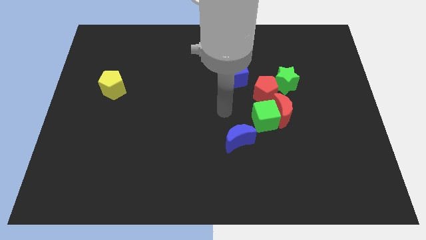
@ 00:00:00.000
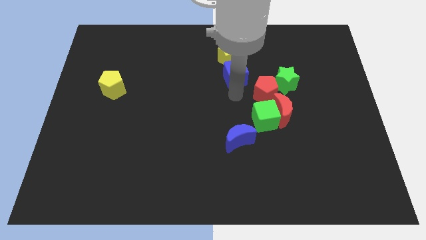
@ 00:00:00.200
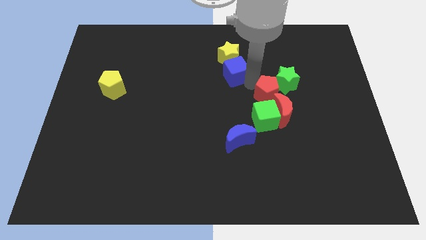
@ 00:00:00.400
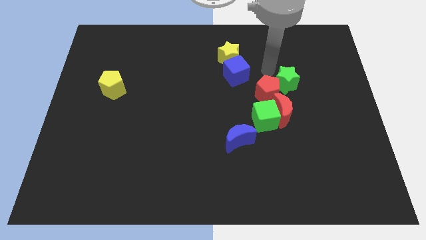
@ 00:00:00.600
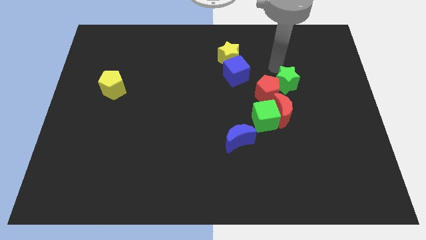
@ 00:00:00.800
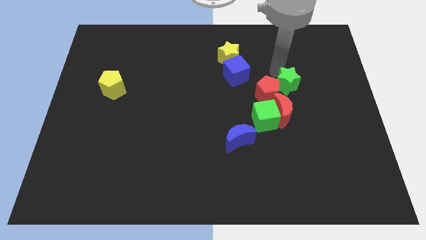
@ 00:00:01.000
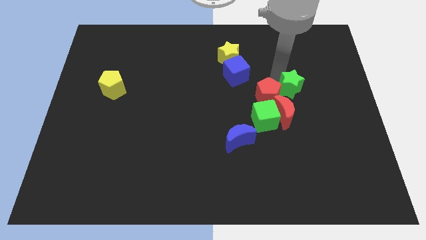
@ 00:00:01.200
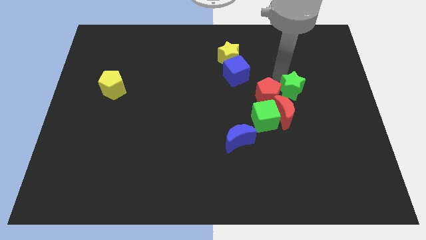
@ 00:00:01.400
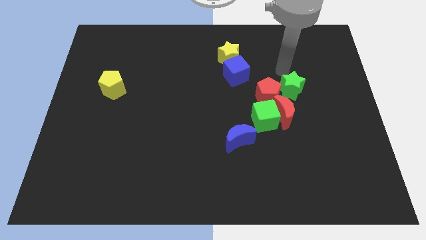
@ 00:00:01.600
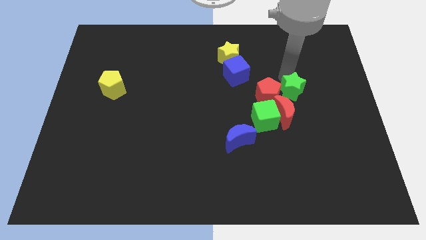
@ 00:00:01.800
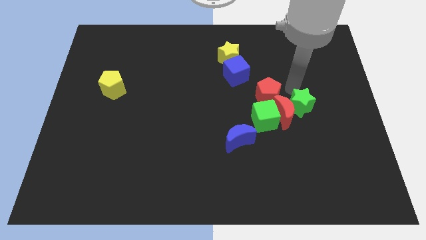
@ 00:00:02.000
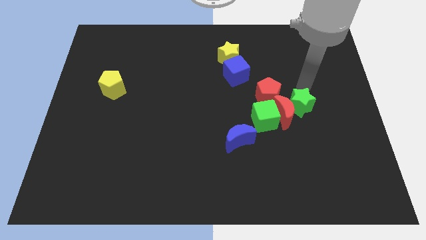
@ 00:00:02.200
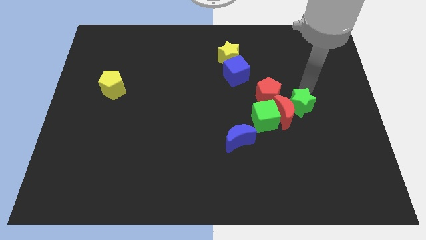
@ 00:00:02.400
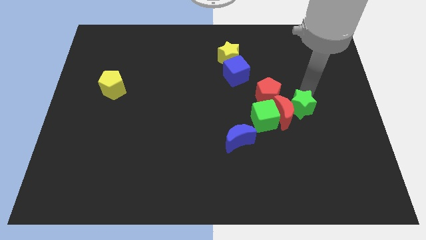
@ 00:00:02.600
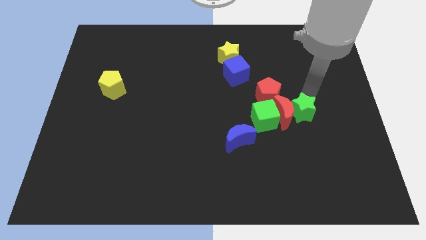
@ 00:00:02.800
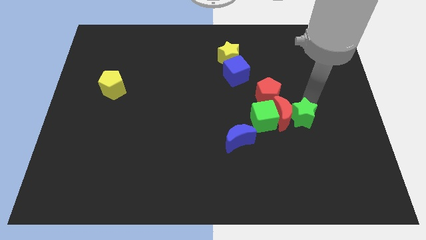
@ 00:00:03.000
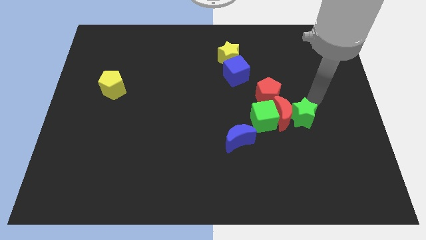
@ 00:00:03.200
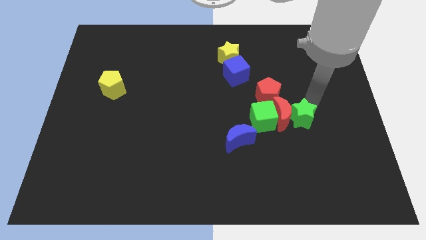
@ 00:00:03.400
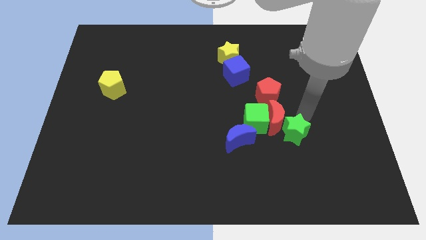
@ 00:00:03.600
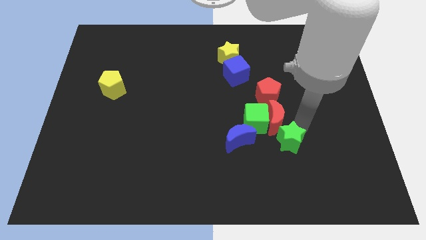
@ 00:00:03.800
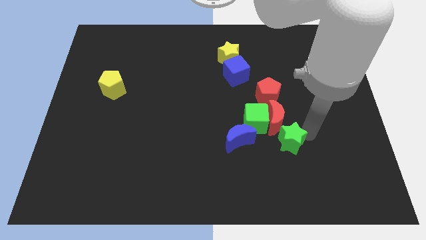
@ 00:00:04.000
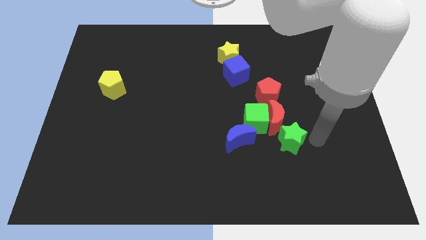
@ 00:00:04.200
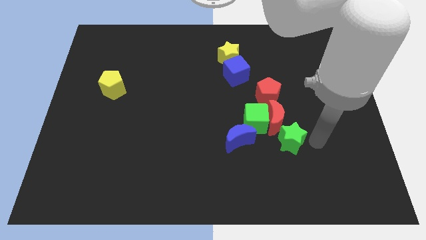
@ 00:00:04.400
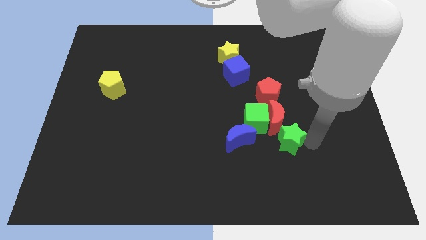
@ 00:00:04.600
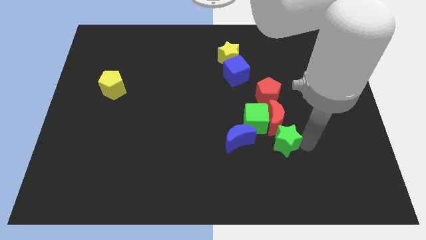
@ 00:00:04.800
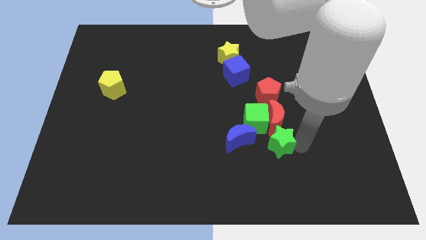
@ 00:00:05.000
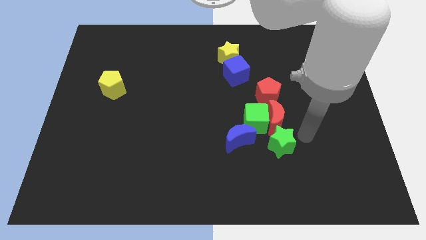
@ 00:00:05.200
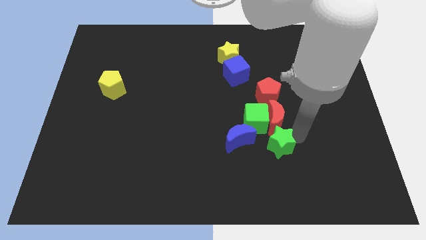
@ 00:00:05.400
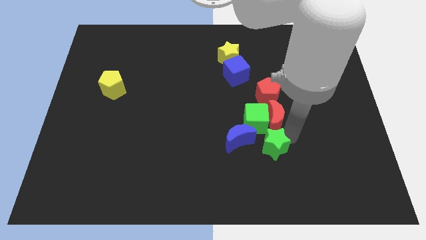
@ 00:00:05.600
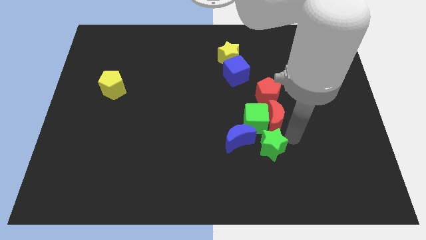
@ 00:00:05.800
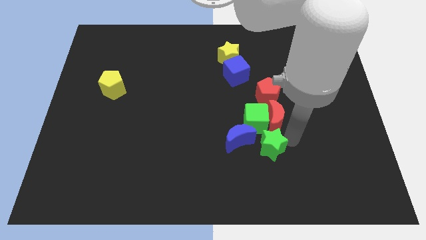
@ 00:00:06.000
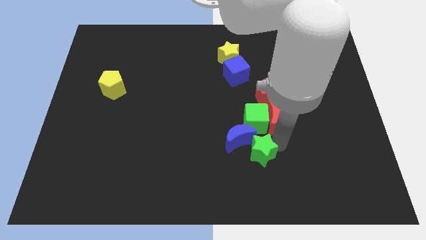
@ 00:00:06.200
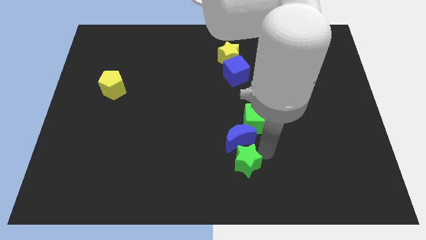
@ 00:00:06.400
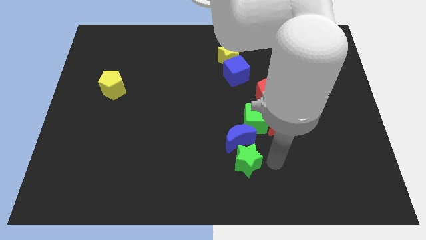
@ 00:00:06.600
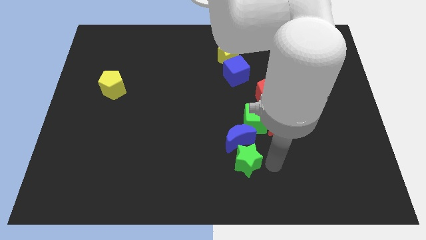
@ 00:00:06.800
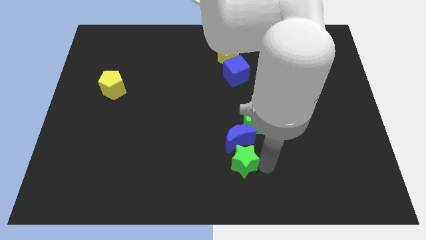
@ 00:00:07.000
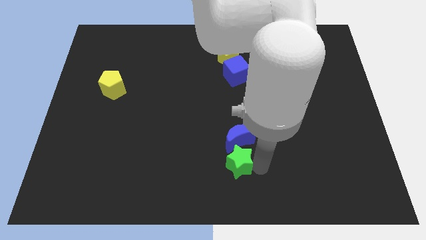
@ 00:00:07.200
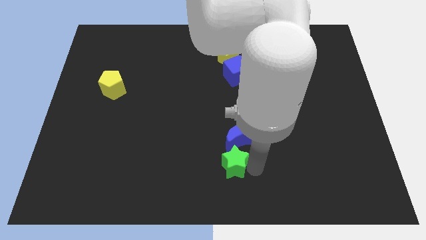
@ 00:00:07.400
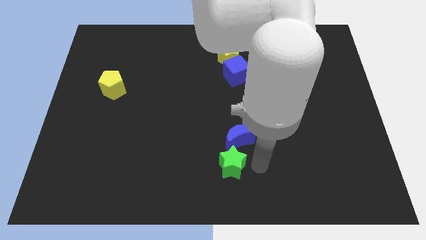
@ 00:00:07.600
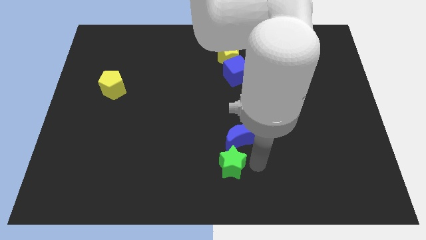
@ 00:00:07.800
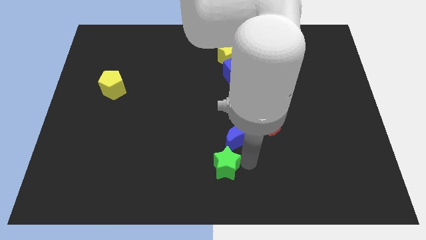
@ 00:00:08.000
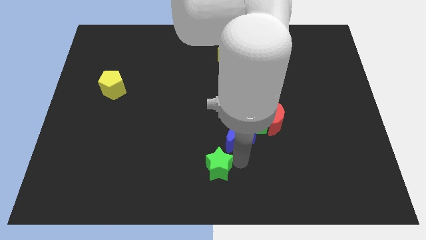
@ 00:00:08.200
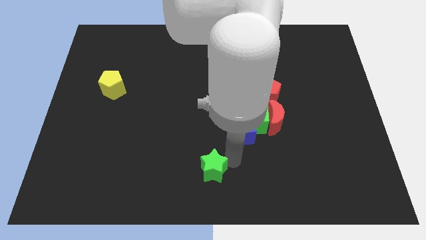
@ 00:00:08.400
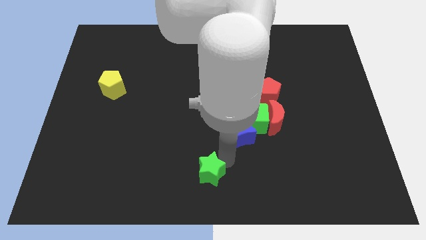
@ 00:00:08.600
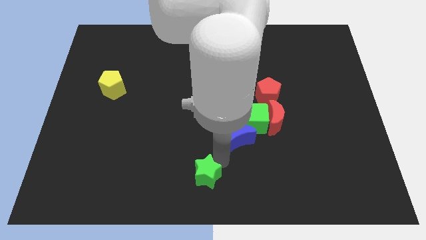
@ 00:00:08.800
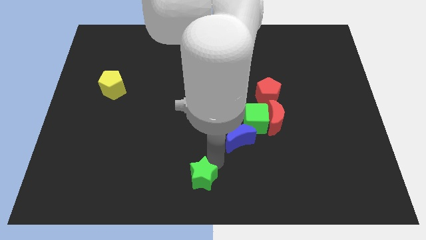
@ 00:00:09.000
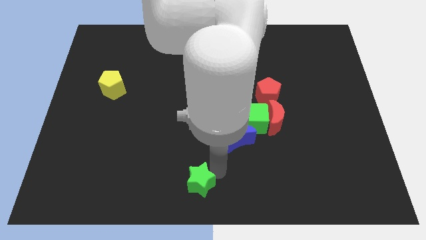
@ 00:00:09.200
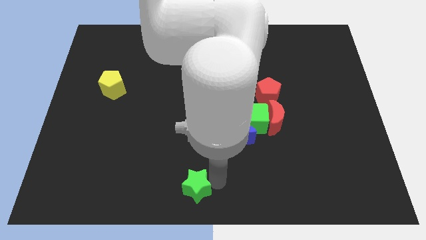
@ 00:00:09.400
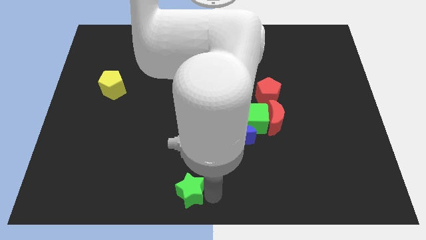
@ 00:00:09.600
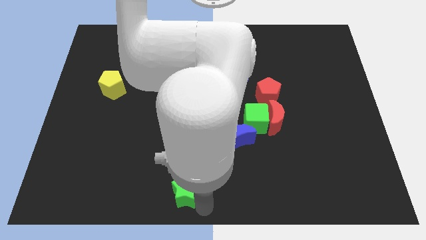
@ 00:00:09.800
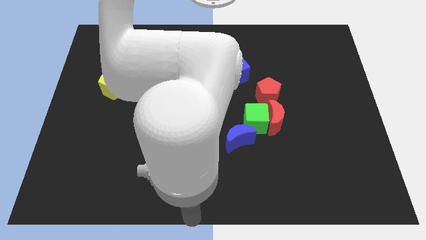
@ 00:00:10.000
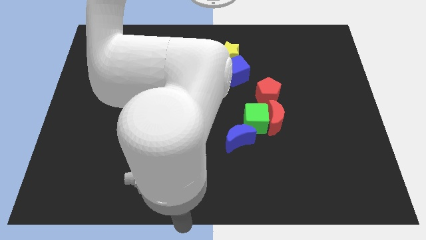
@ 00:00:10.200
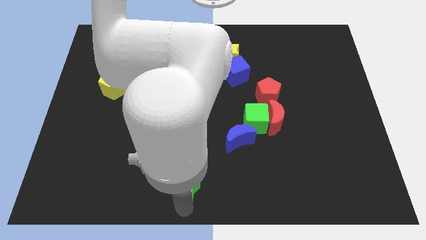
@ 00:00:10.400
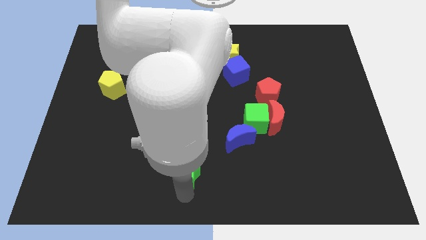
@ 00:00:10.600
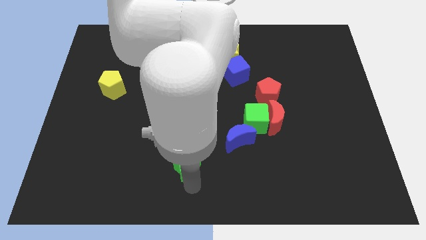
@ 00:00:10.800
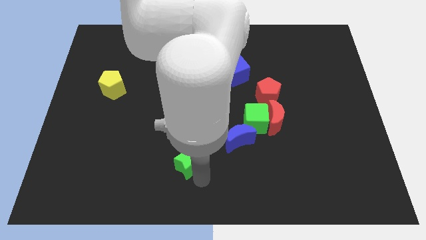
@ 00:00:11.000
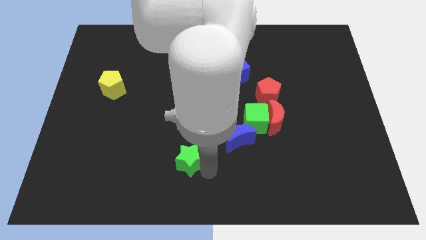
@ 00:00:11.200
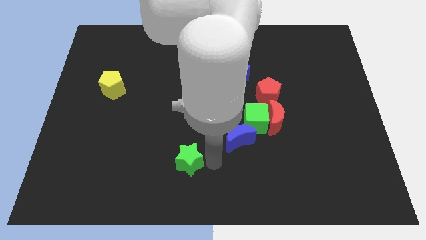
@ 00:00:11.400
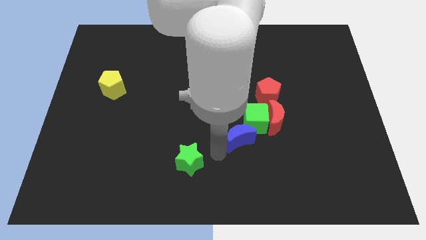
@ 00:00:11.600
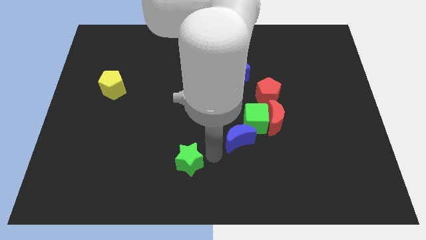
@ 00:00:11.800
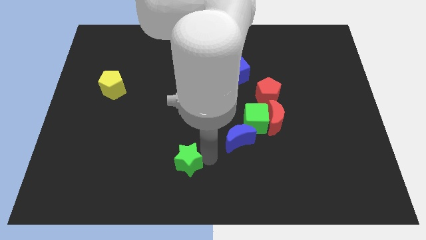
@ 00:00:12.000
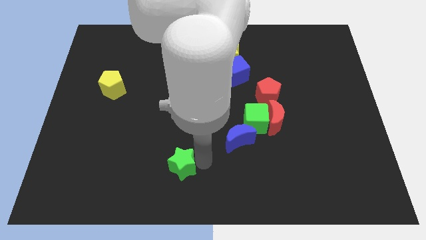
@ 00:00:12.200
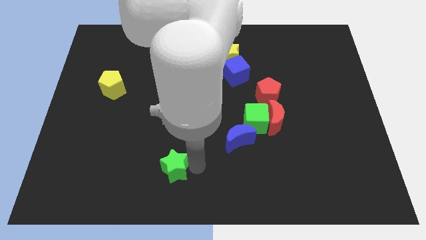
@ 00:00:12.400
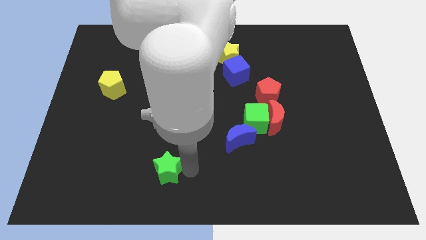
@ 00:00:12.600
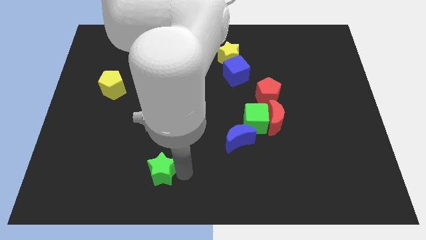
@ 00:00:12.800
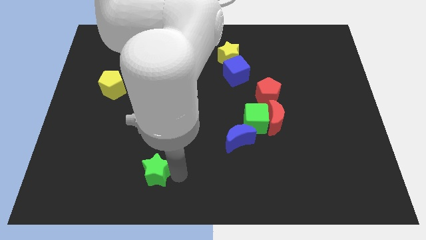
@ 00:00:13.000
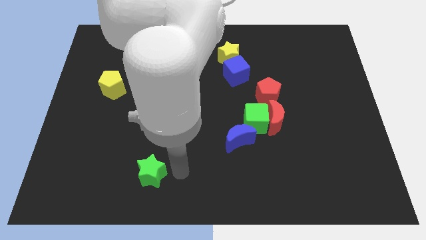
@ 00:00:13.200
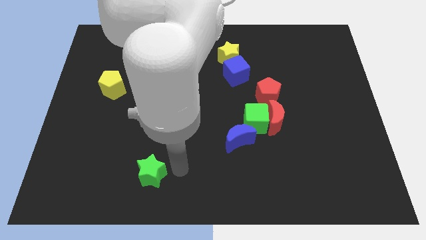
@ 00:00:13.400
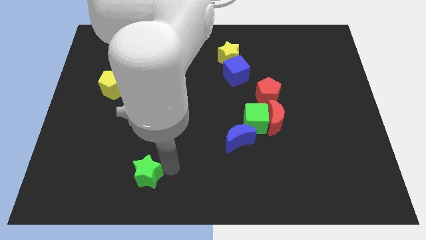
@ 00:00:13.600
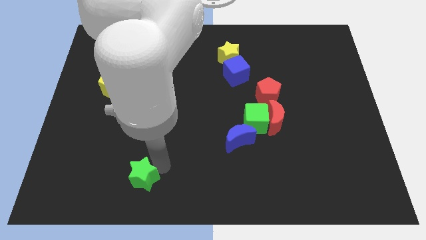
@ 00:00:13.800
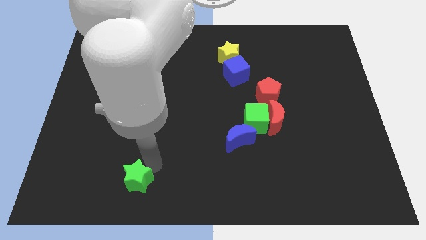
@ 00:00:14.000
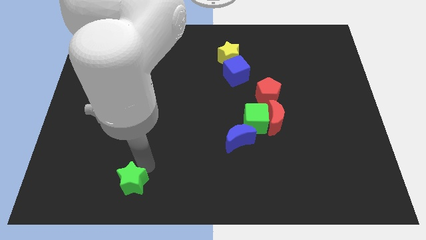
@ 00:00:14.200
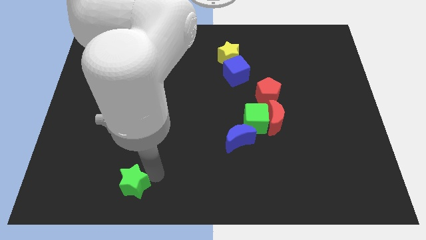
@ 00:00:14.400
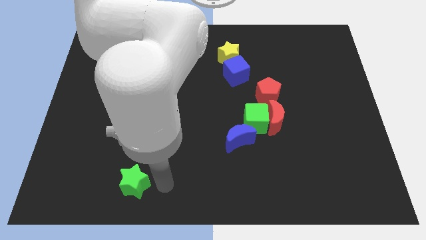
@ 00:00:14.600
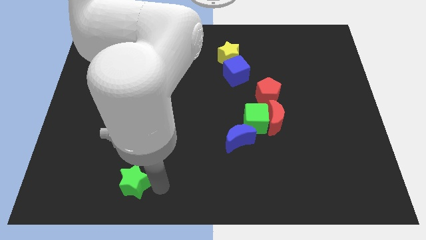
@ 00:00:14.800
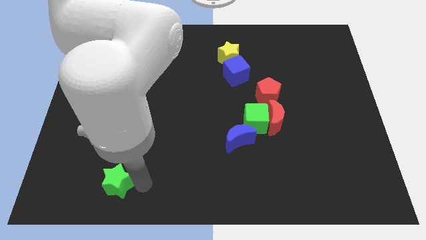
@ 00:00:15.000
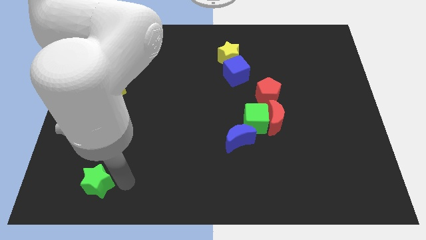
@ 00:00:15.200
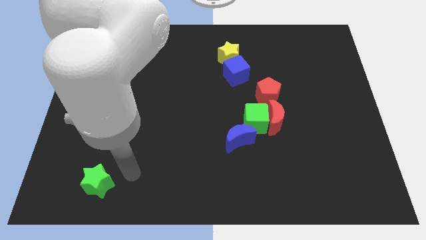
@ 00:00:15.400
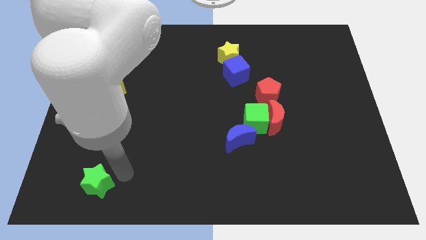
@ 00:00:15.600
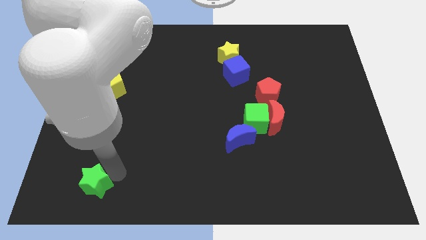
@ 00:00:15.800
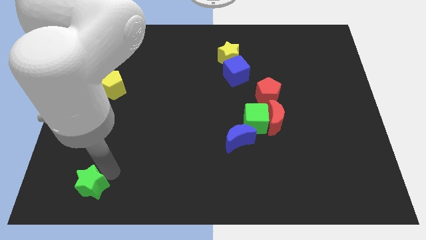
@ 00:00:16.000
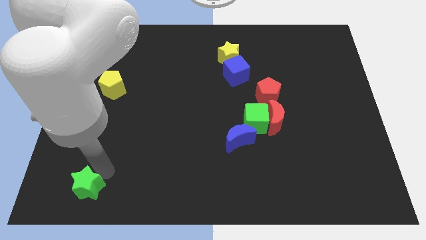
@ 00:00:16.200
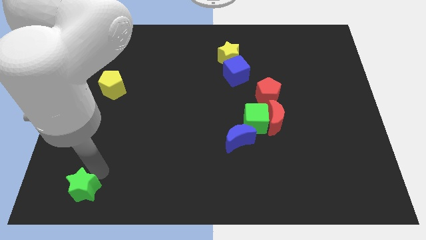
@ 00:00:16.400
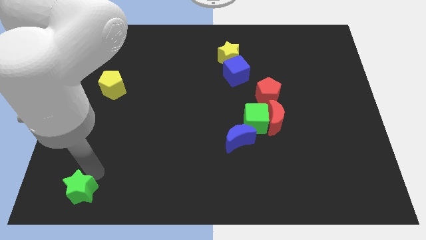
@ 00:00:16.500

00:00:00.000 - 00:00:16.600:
put the green star to the bottom left corner
